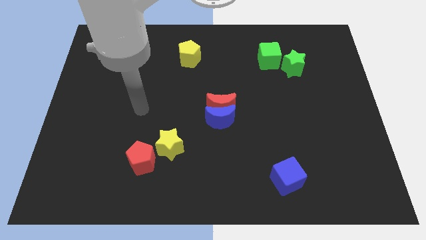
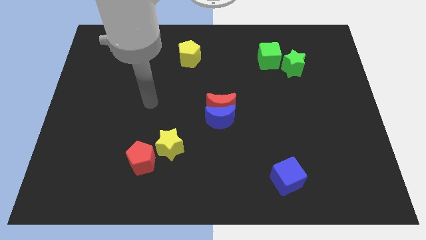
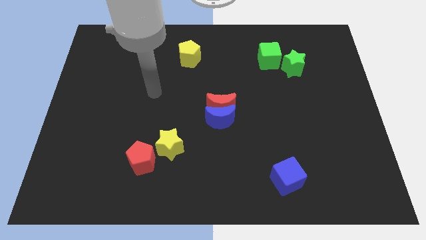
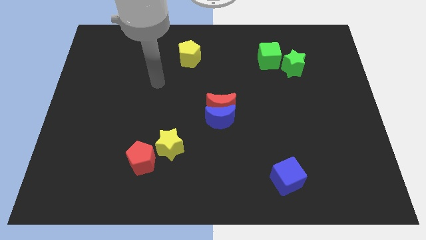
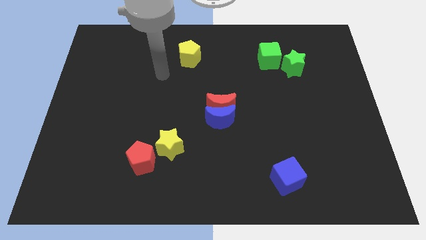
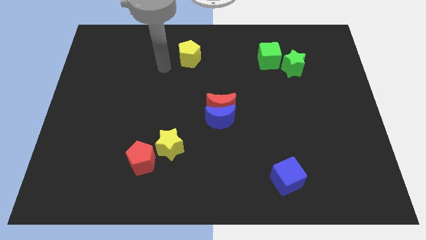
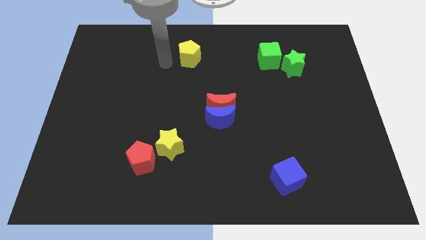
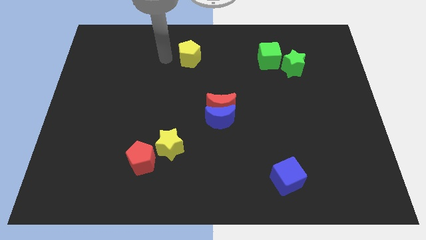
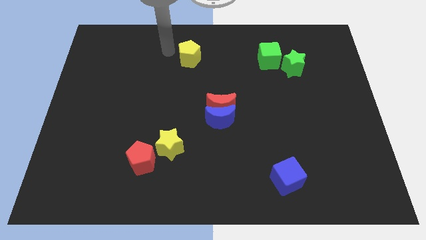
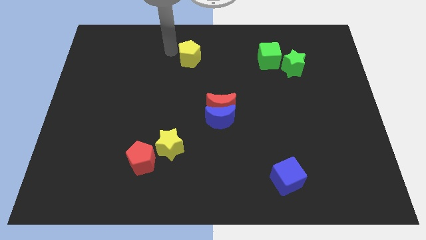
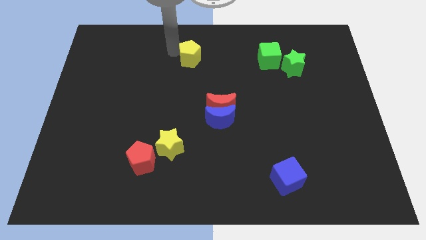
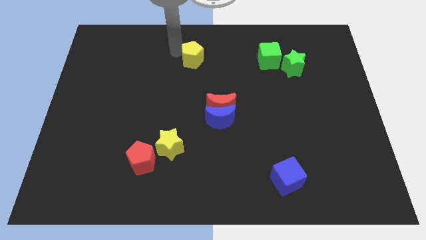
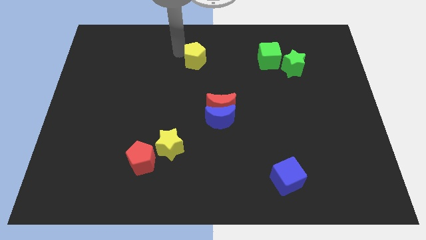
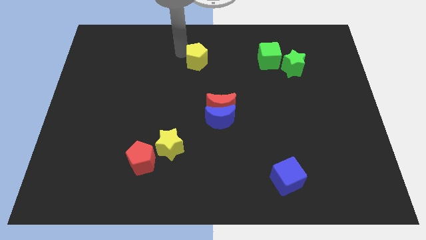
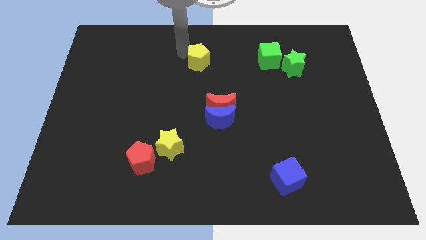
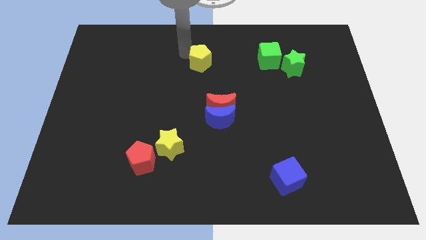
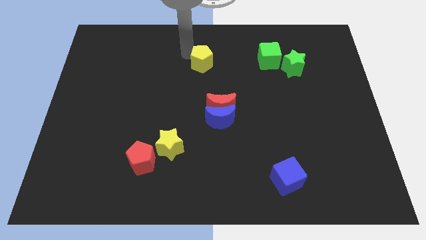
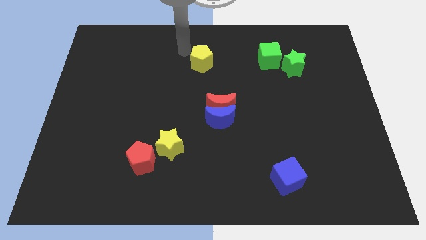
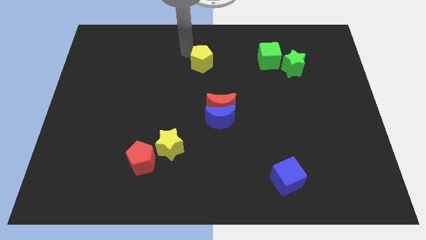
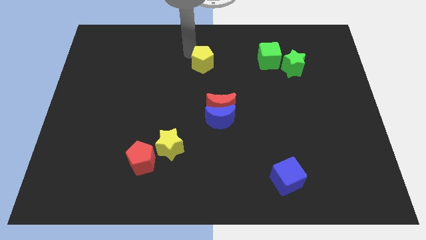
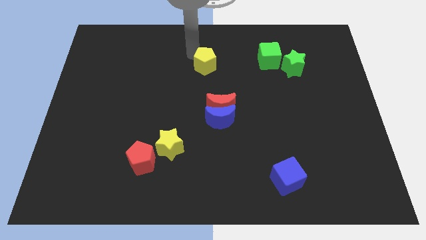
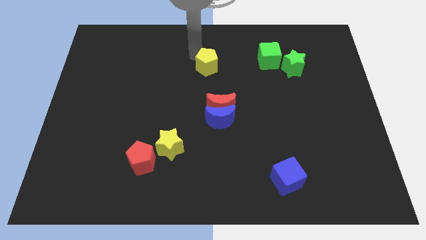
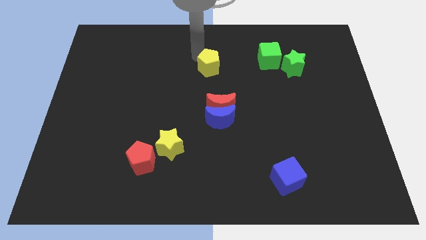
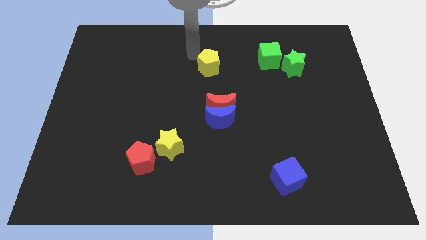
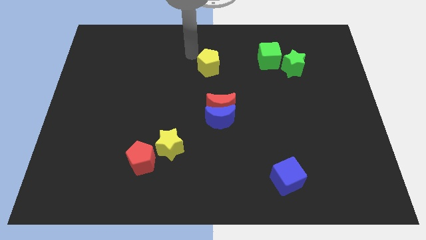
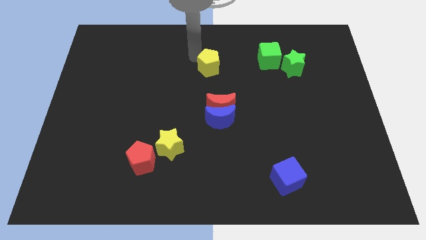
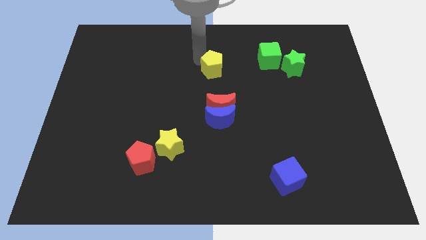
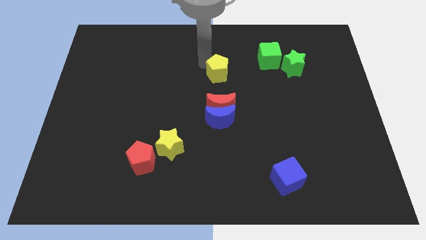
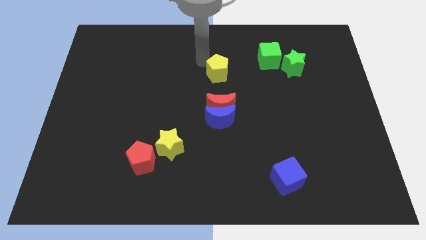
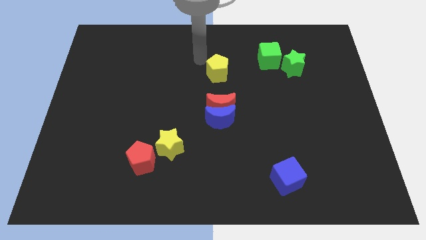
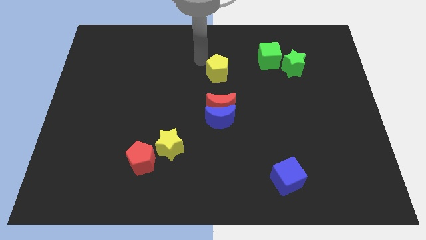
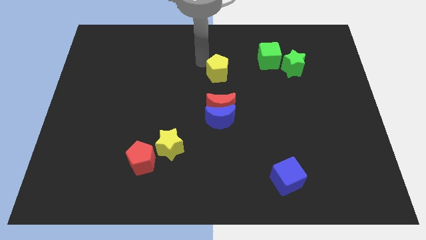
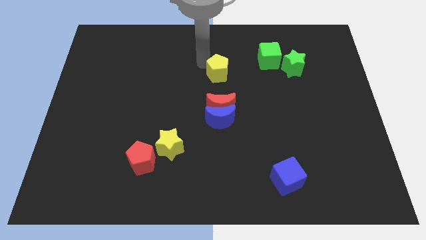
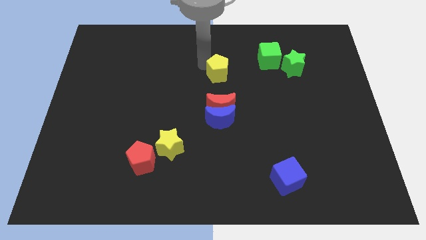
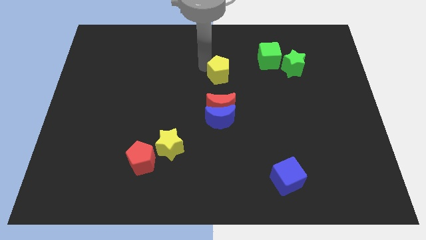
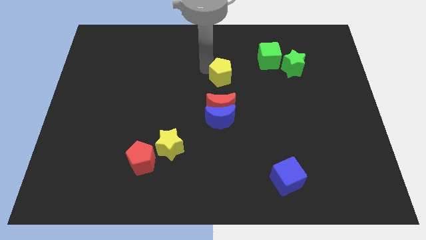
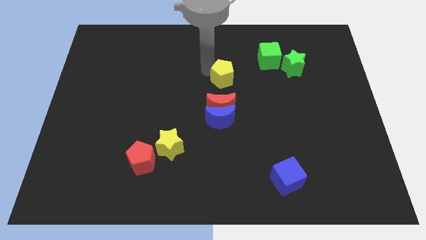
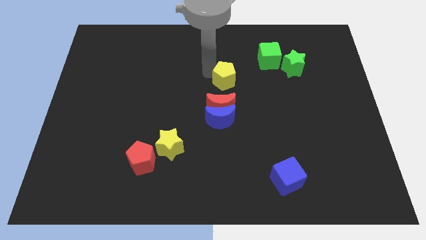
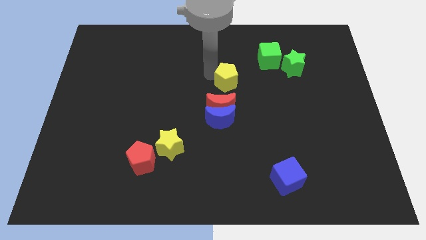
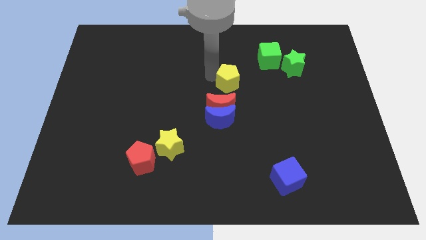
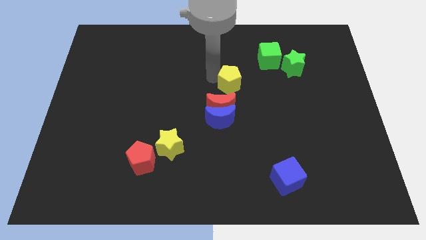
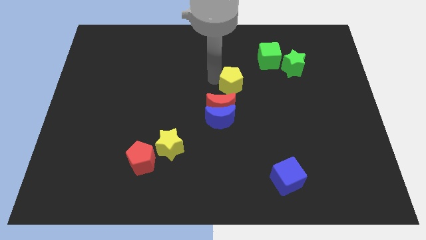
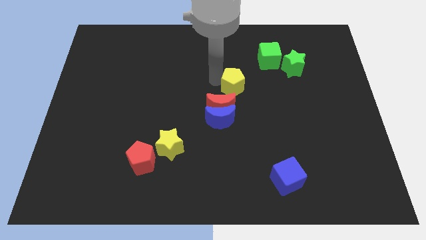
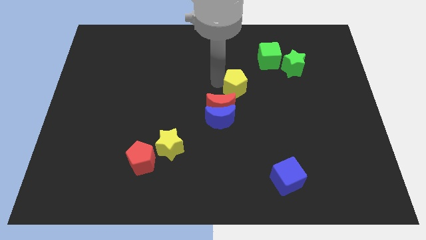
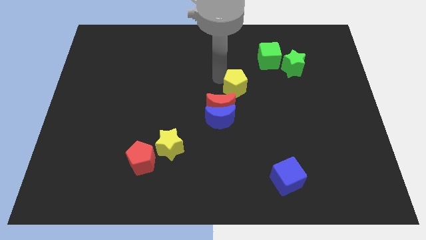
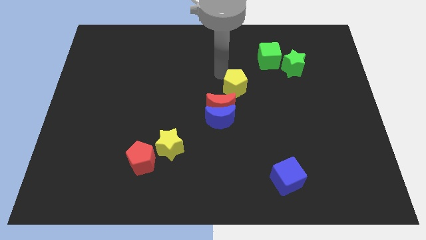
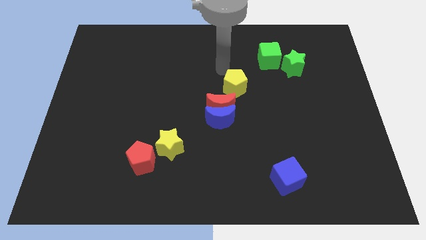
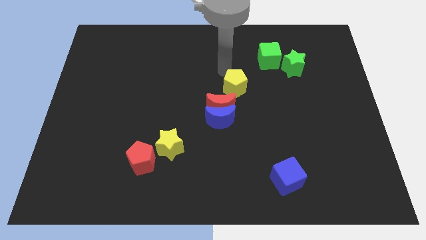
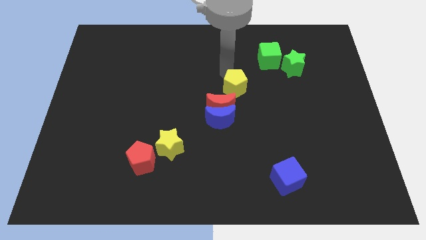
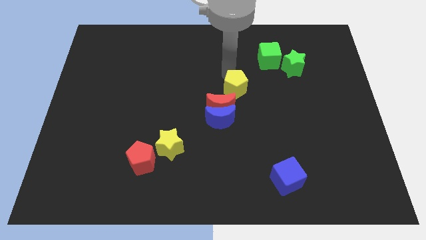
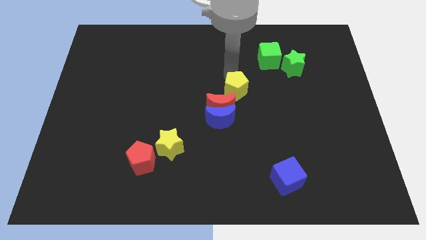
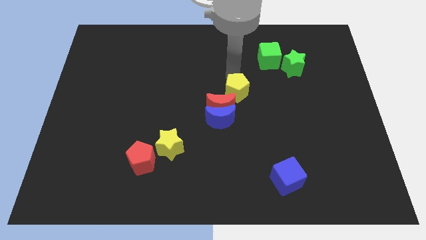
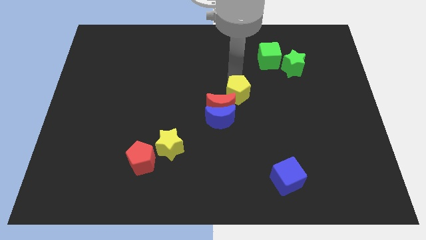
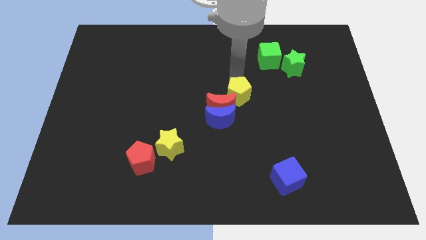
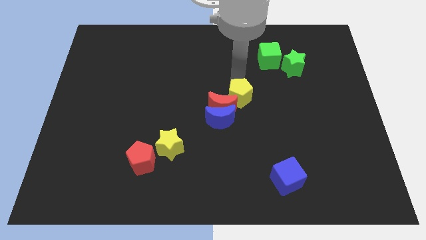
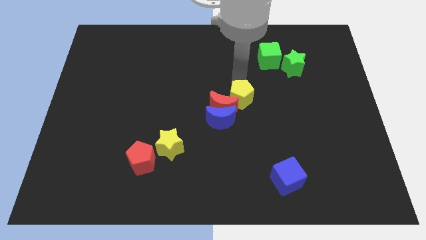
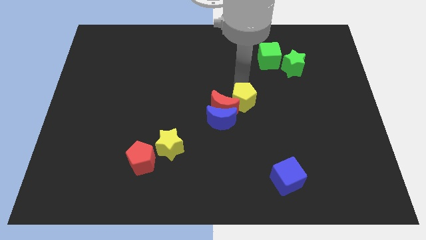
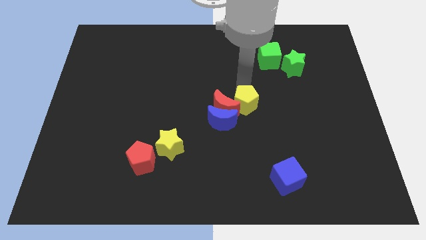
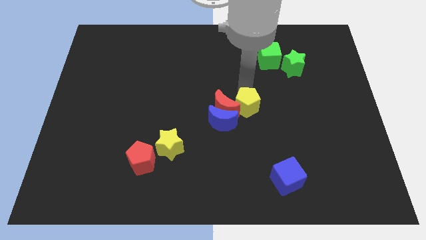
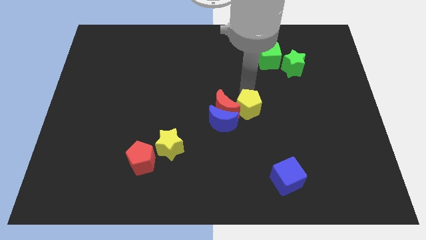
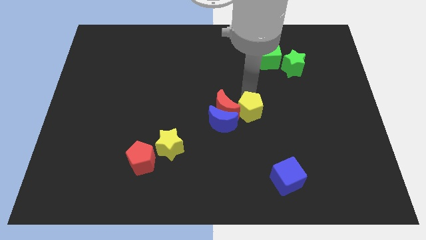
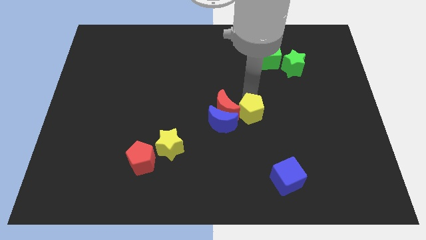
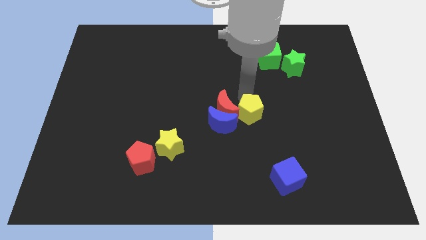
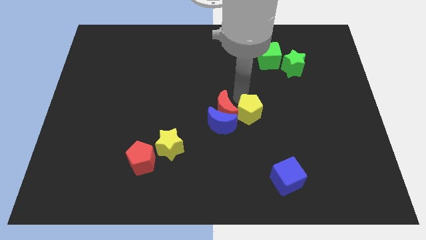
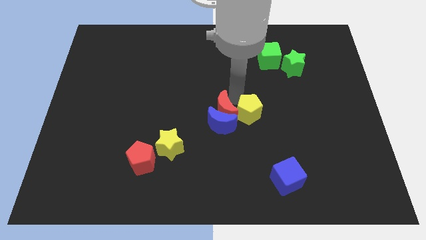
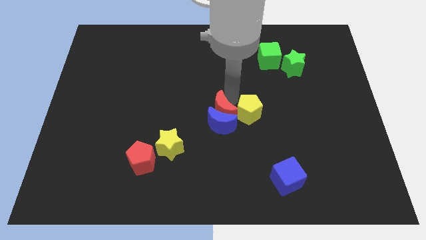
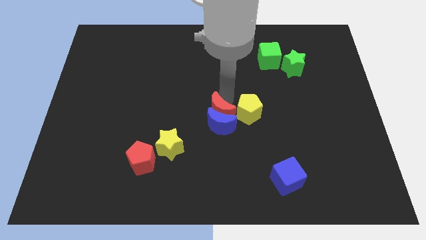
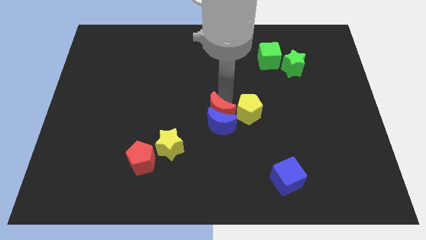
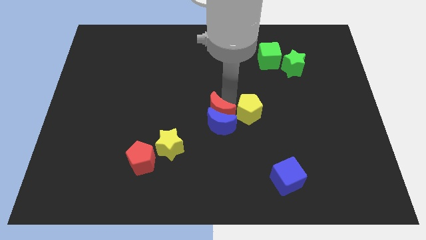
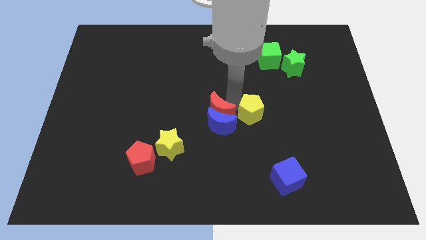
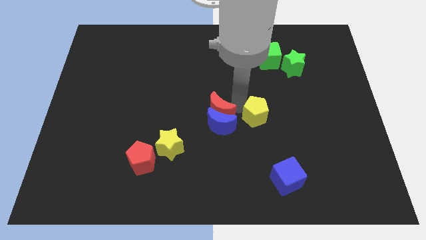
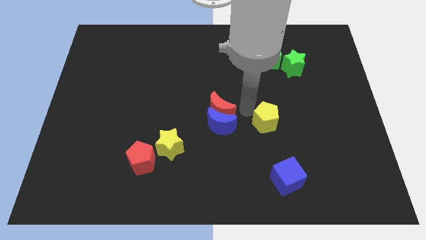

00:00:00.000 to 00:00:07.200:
push the yellow pentagon above the blue cube
